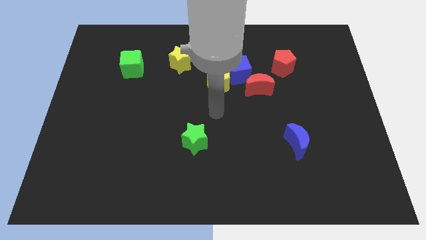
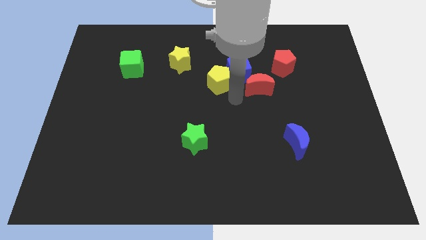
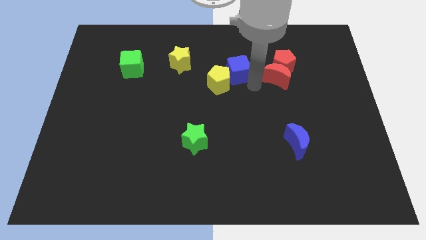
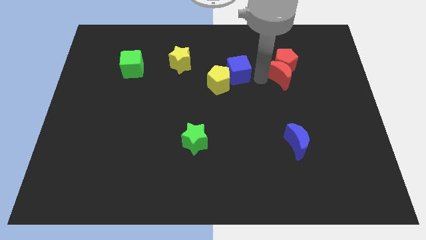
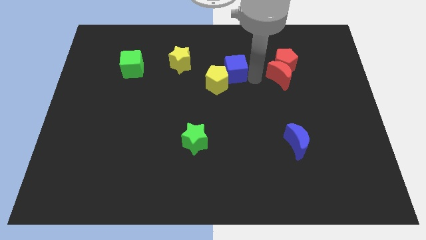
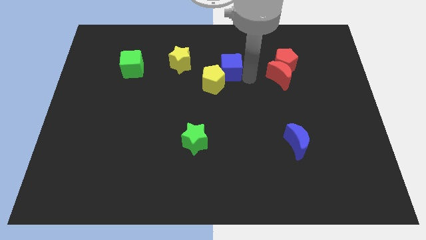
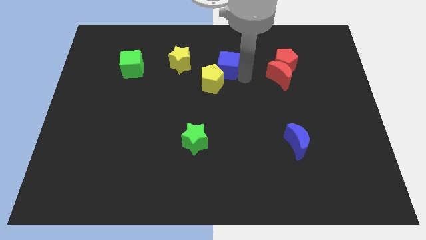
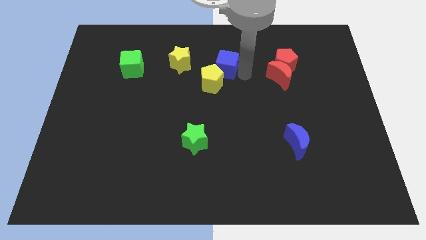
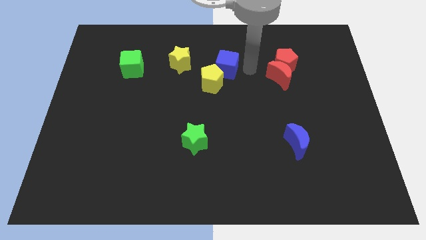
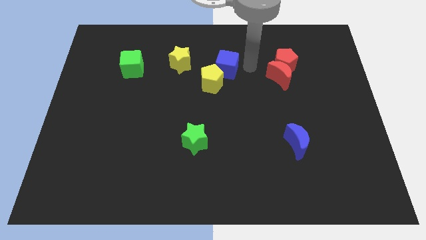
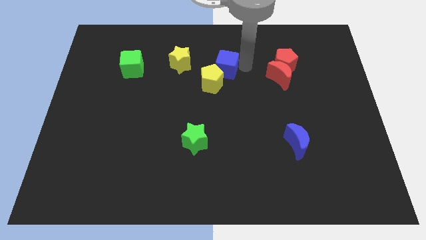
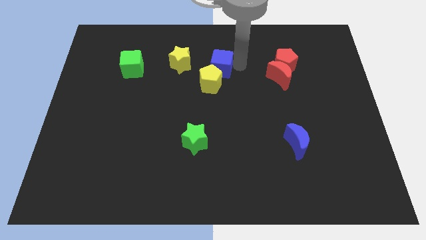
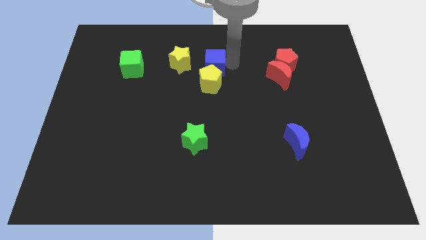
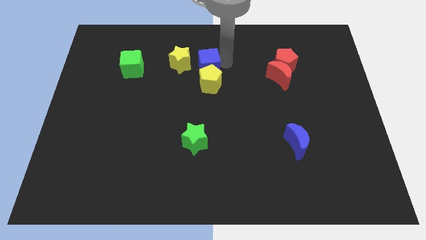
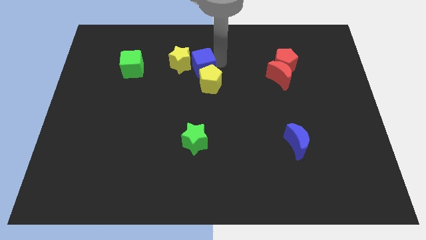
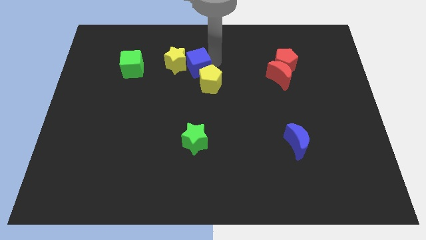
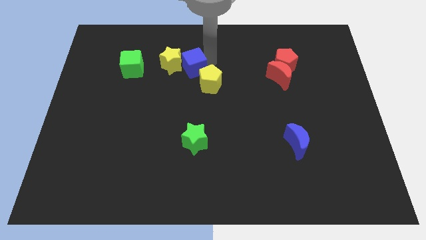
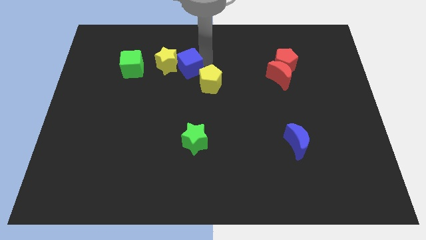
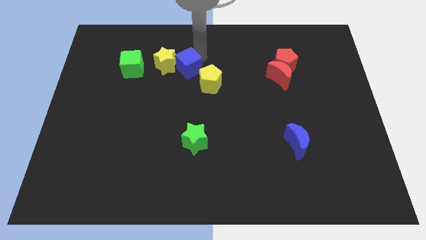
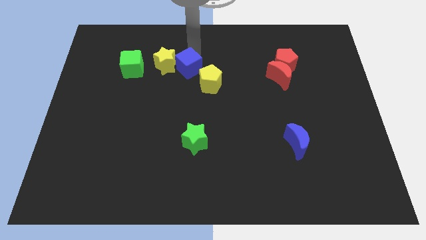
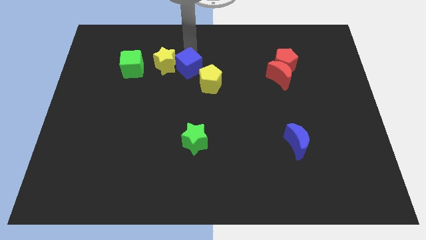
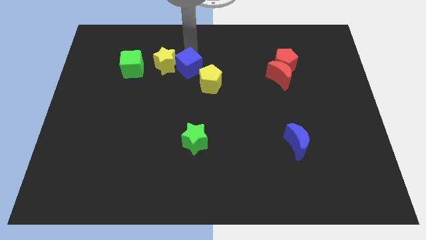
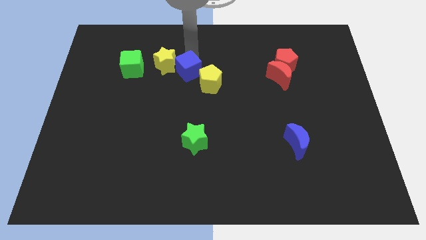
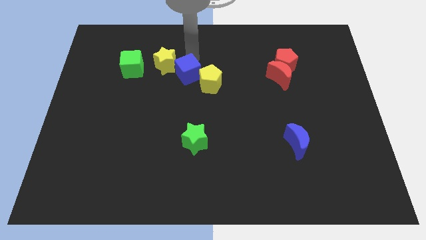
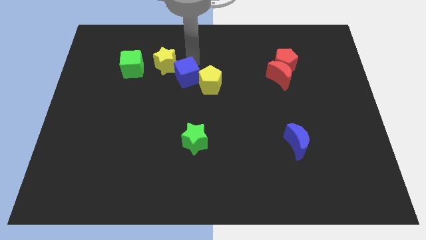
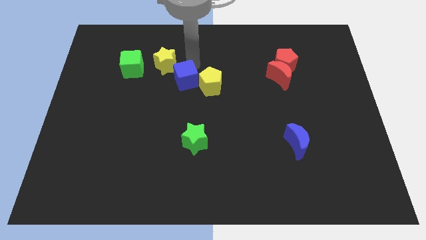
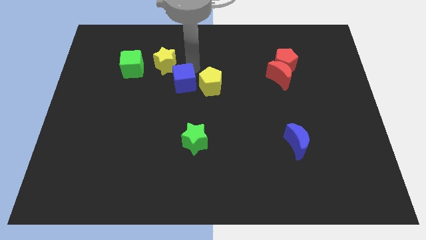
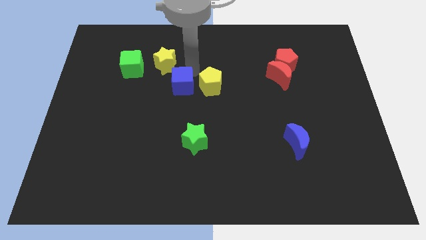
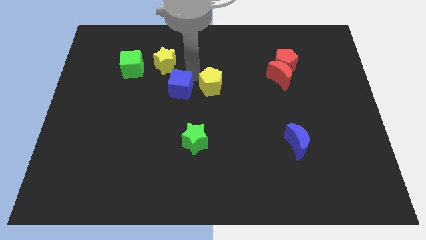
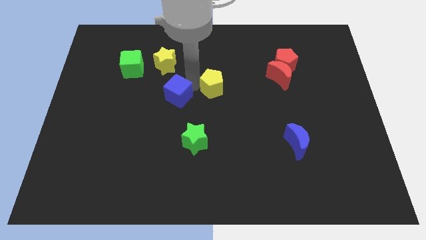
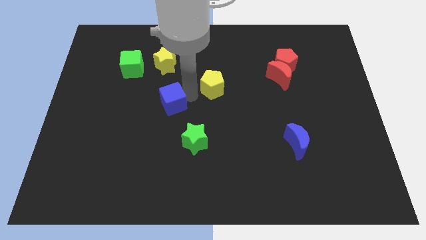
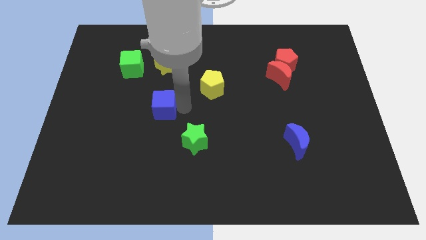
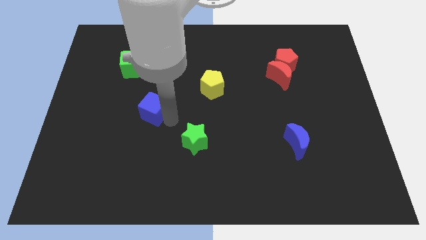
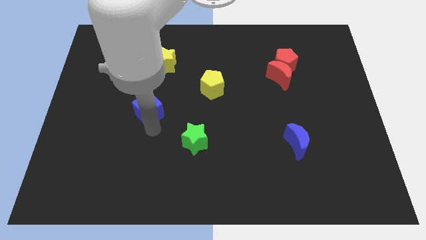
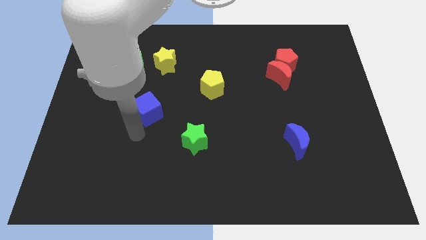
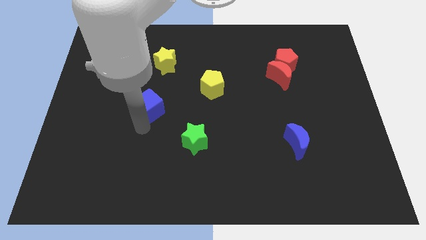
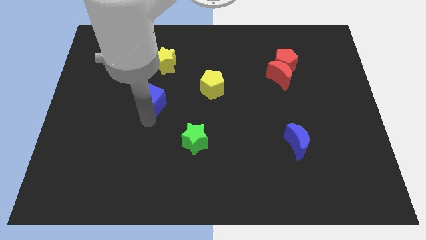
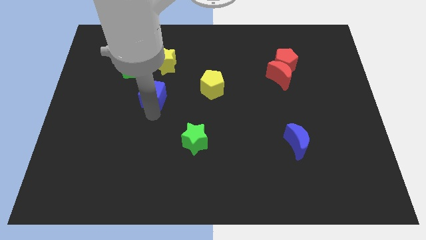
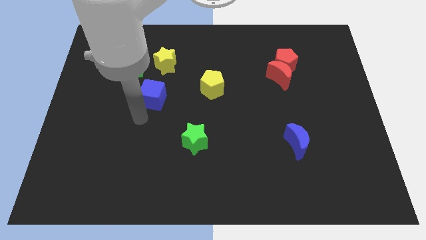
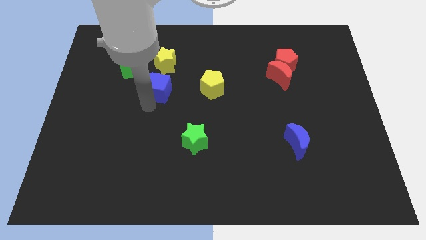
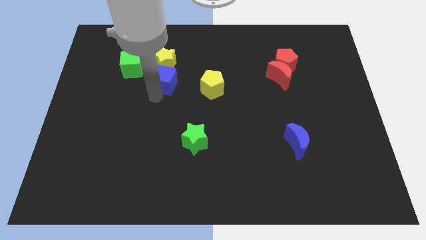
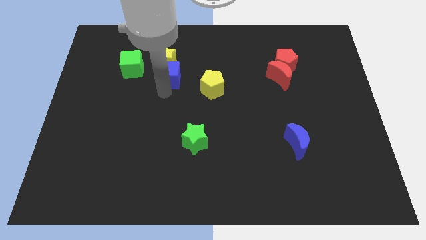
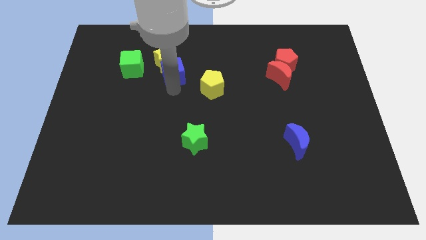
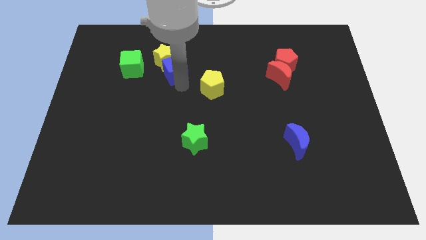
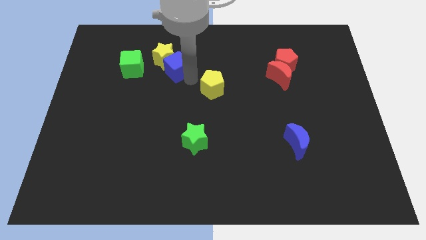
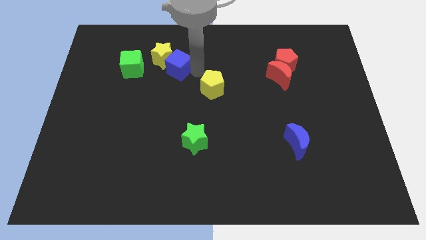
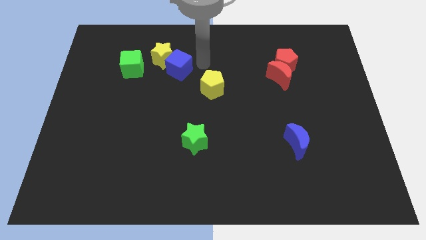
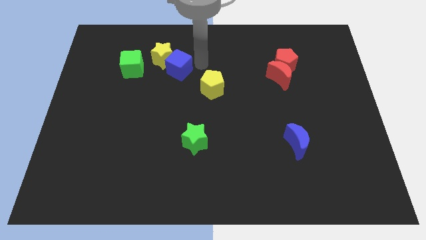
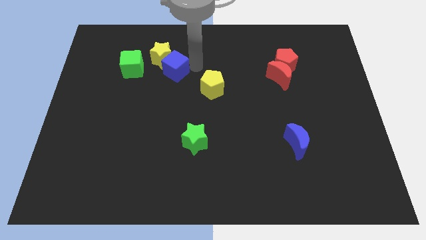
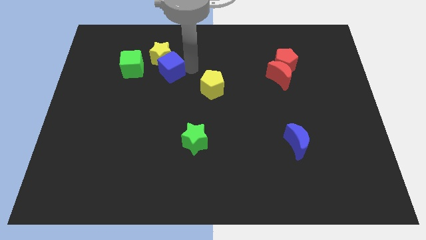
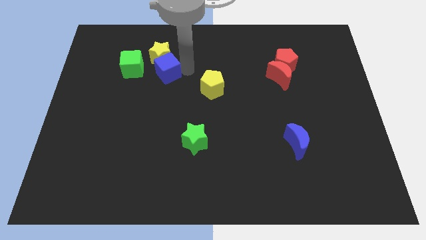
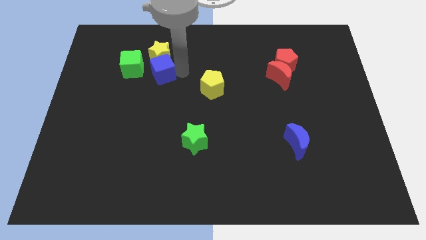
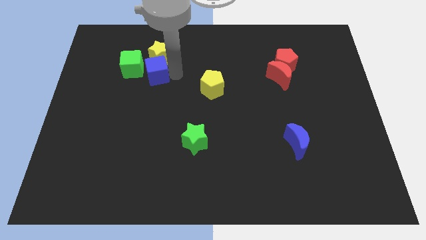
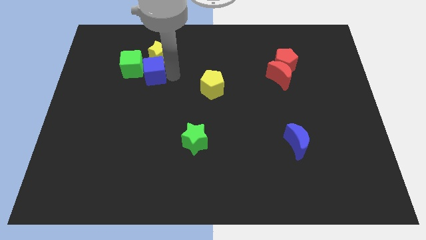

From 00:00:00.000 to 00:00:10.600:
slide the blue cube to the green cube

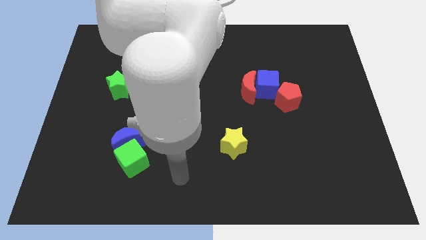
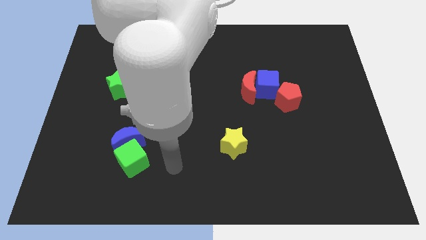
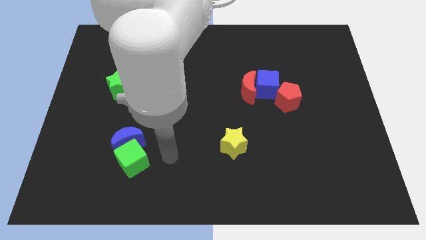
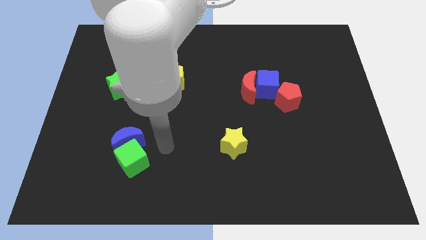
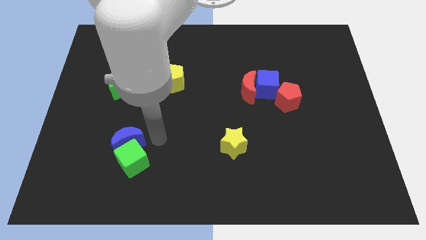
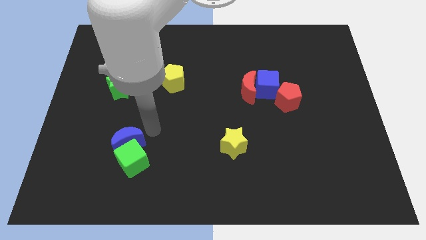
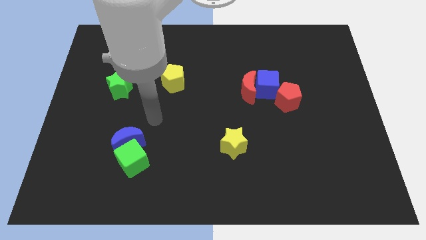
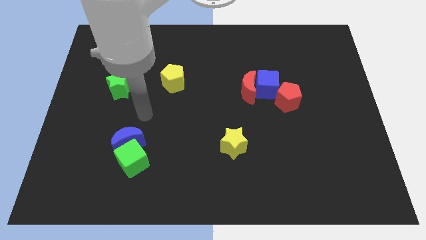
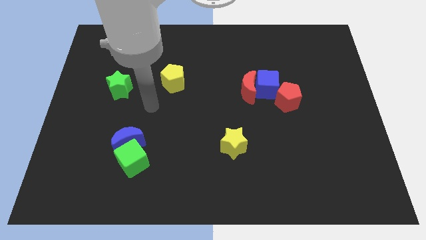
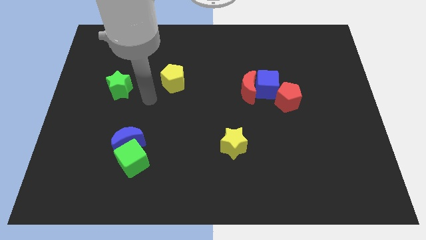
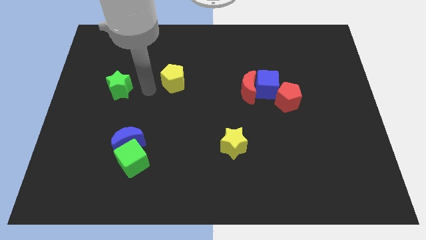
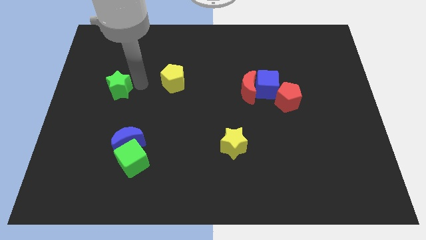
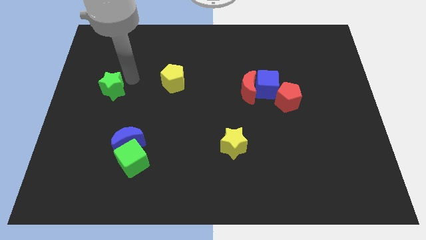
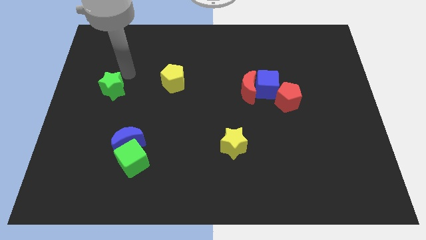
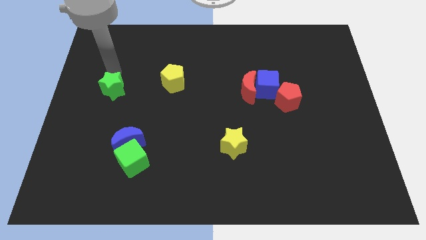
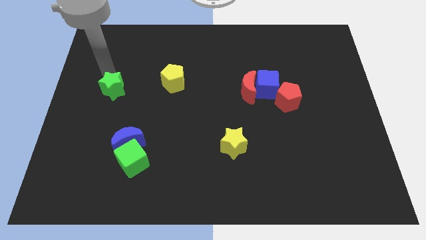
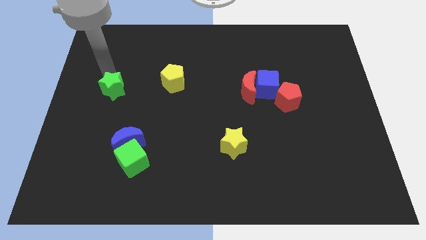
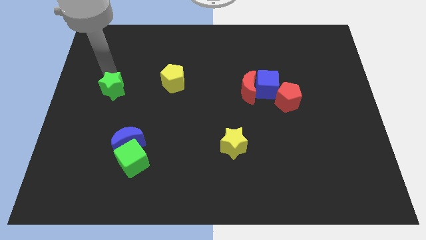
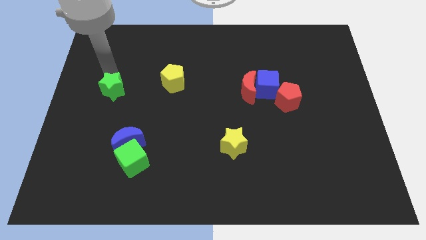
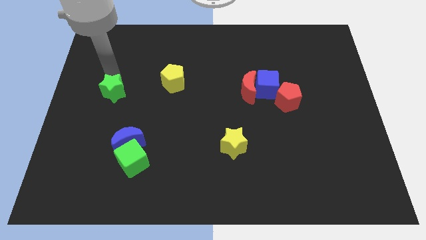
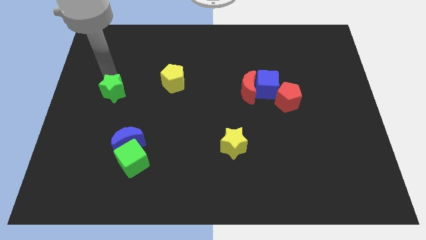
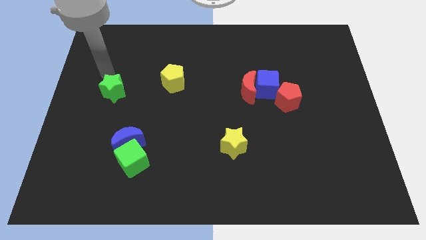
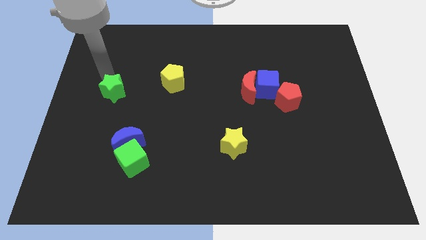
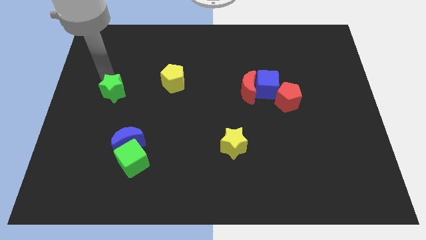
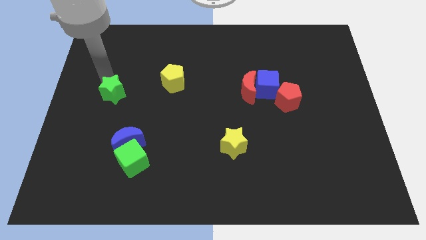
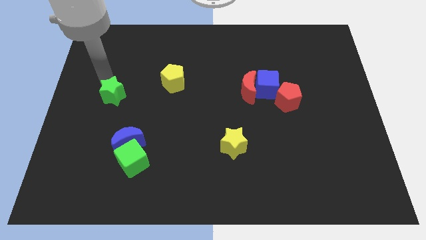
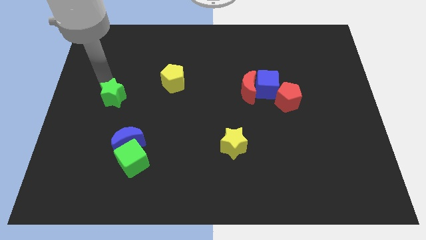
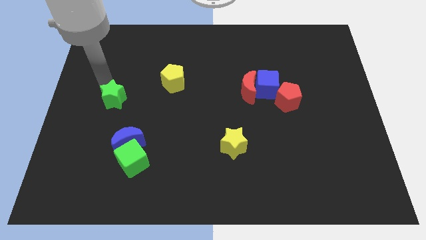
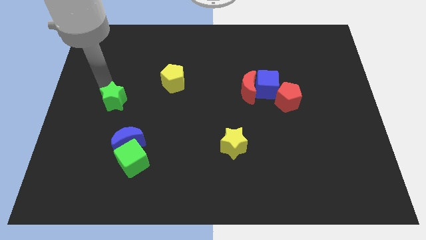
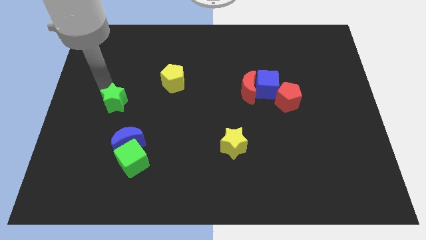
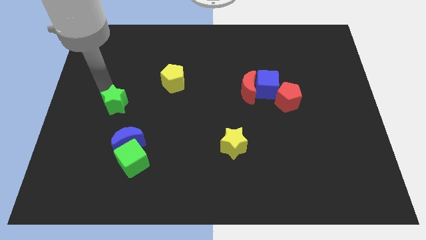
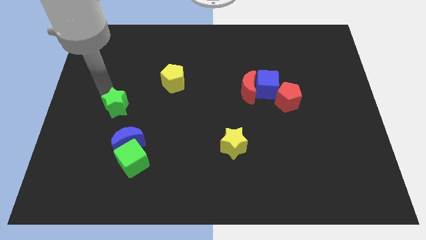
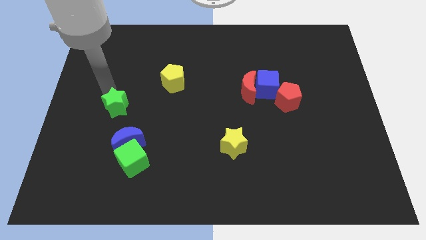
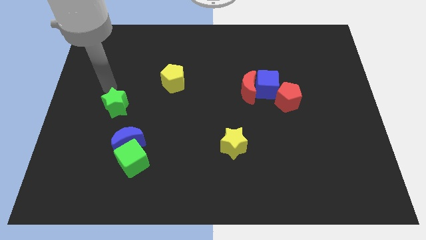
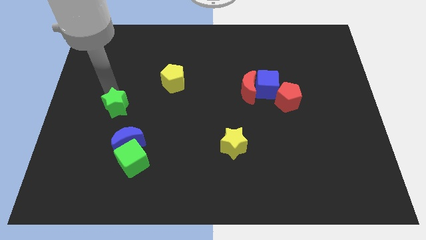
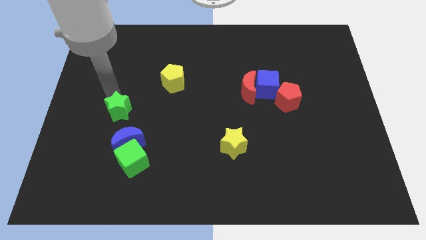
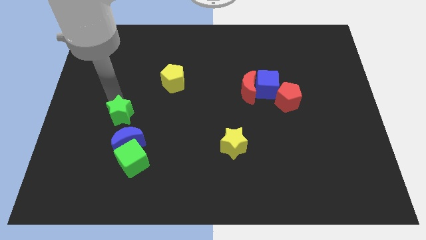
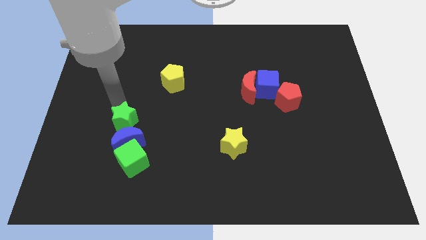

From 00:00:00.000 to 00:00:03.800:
put the green star next to the blue moon
